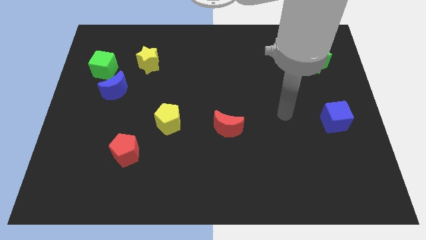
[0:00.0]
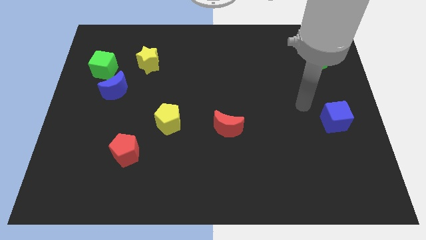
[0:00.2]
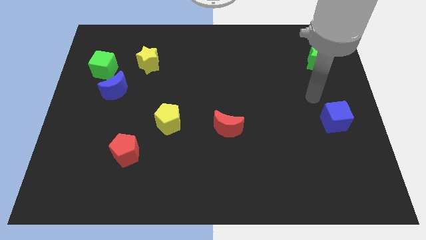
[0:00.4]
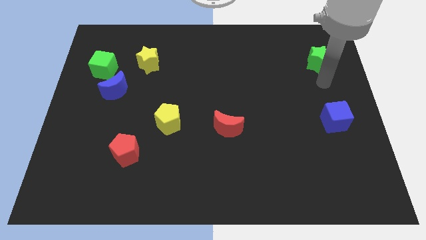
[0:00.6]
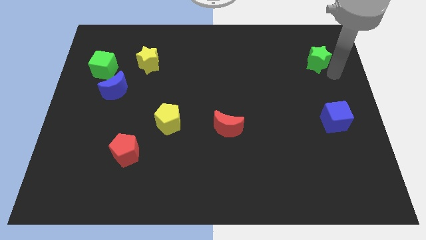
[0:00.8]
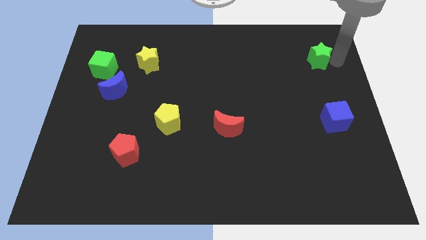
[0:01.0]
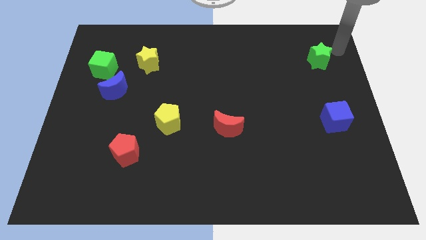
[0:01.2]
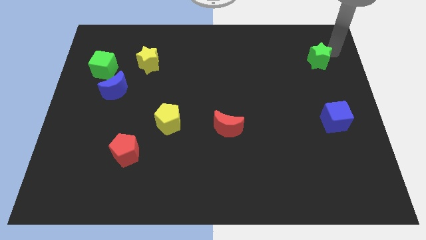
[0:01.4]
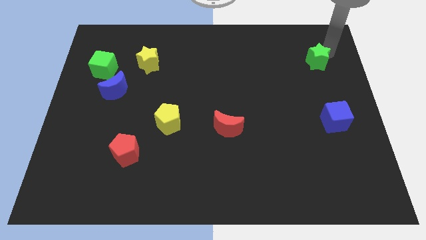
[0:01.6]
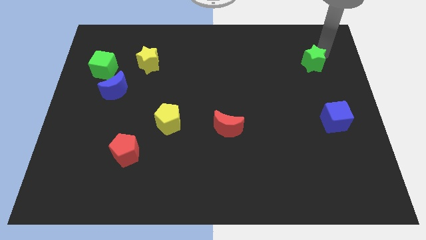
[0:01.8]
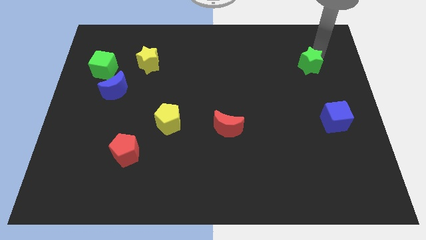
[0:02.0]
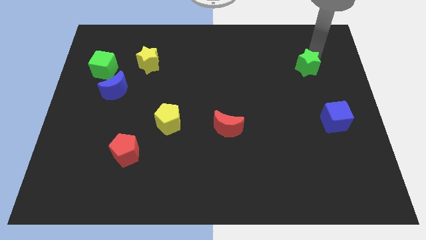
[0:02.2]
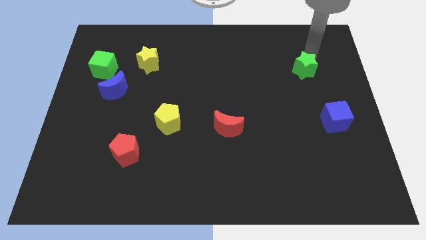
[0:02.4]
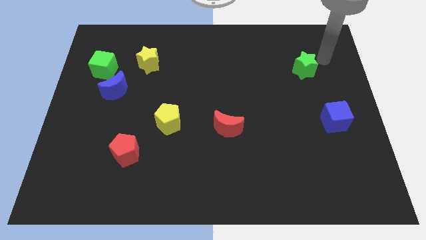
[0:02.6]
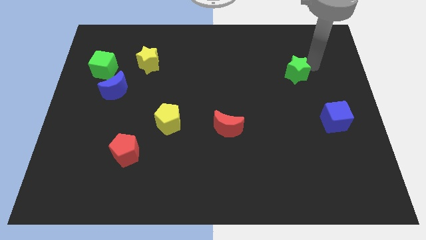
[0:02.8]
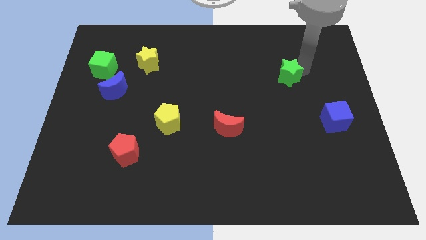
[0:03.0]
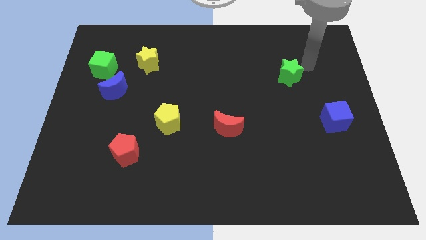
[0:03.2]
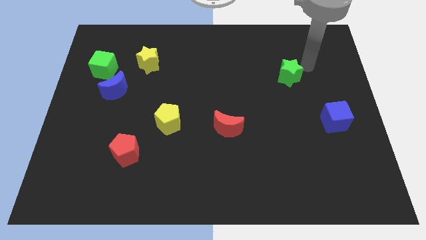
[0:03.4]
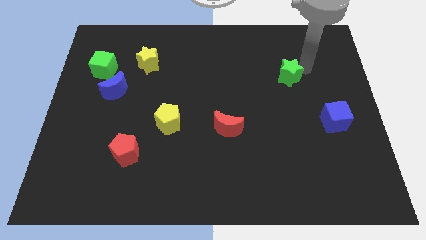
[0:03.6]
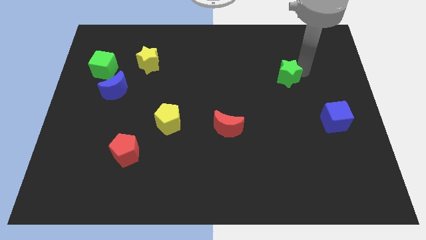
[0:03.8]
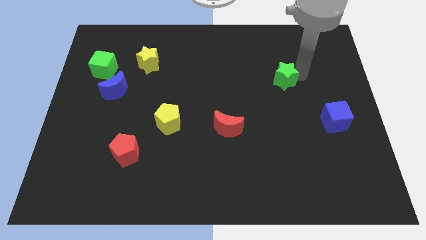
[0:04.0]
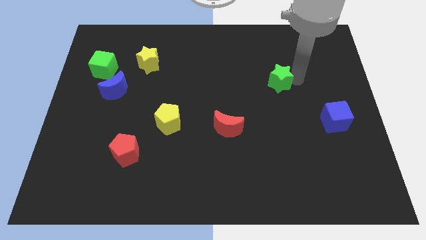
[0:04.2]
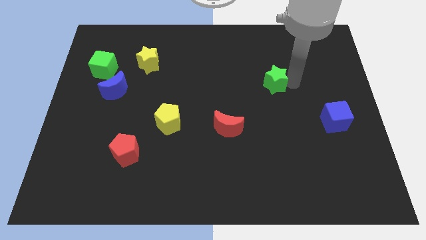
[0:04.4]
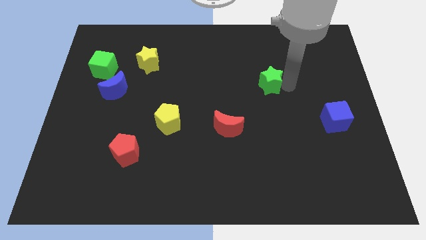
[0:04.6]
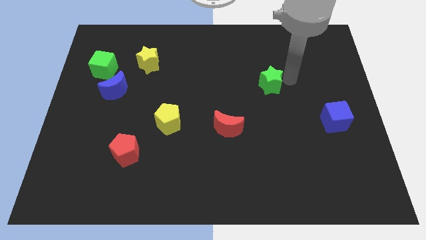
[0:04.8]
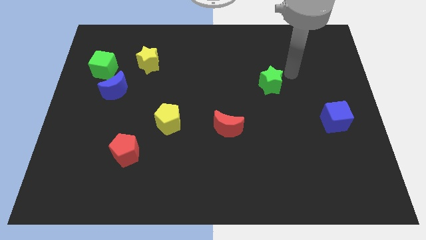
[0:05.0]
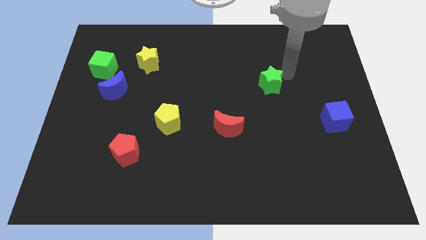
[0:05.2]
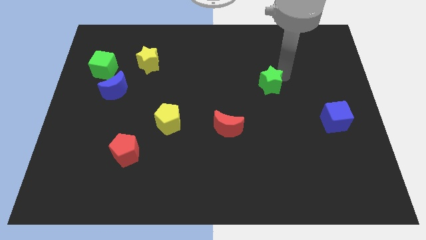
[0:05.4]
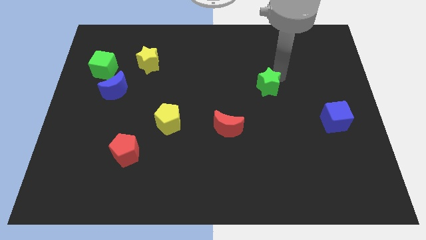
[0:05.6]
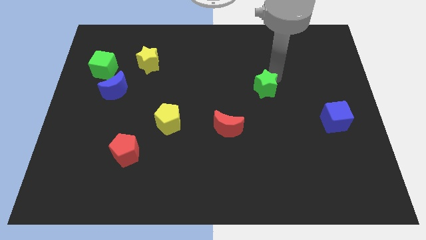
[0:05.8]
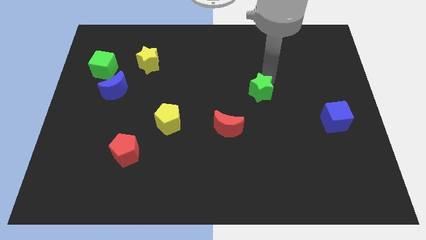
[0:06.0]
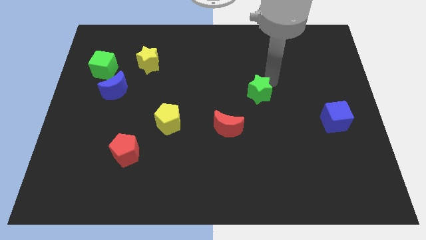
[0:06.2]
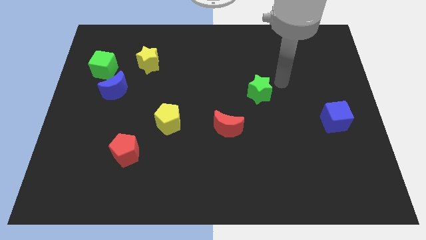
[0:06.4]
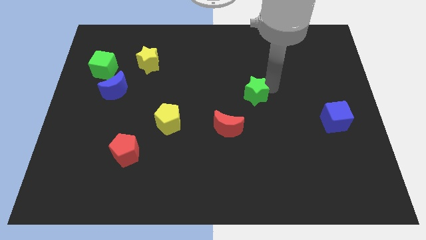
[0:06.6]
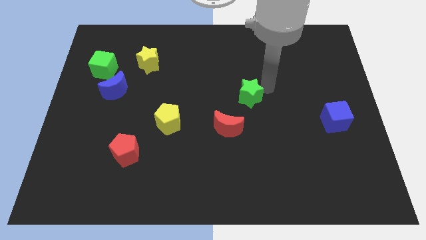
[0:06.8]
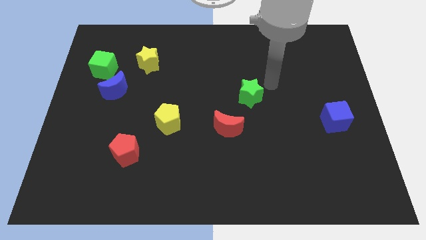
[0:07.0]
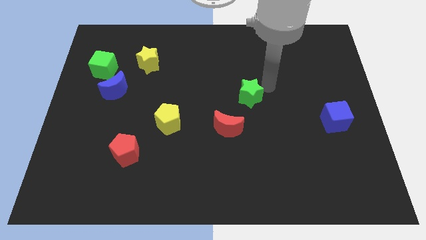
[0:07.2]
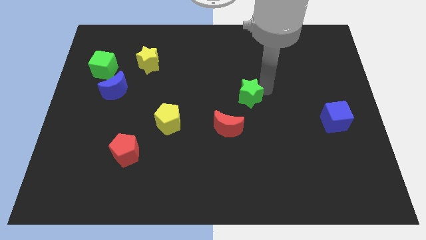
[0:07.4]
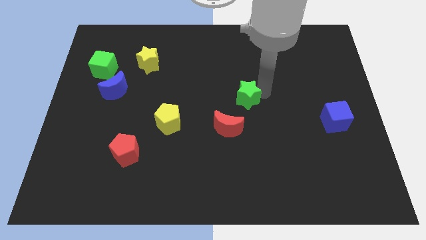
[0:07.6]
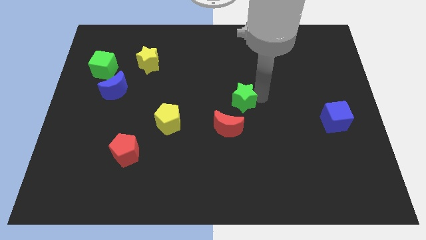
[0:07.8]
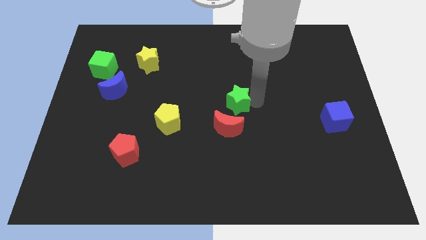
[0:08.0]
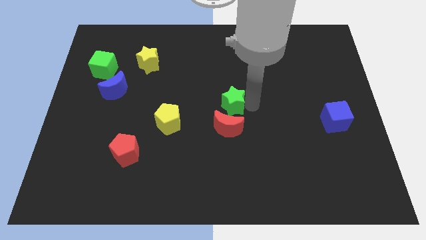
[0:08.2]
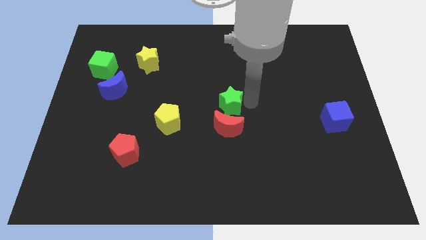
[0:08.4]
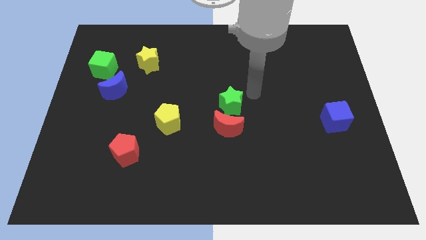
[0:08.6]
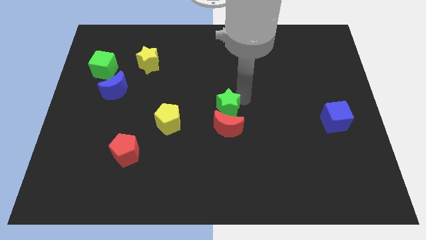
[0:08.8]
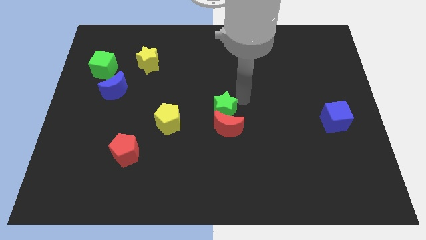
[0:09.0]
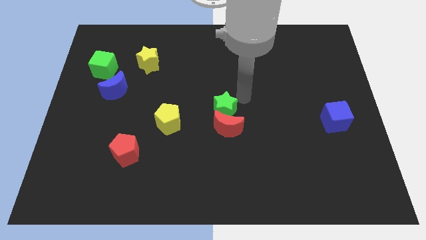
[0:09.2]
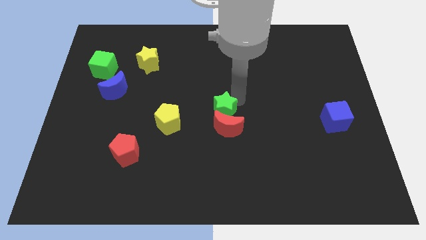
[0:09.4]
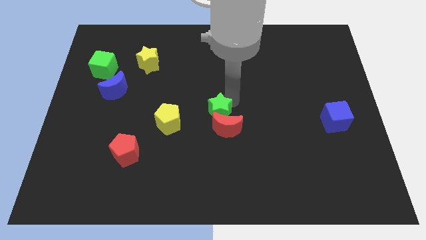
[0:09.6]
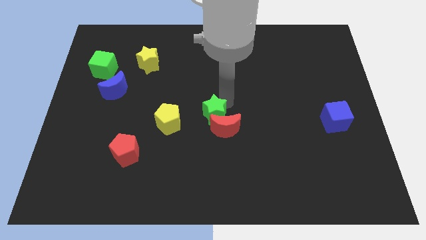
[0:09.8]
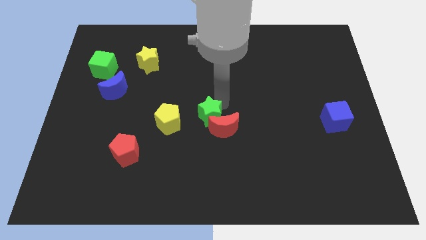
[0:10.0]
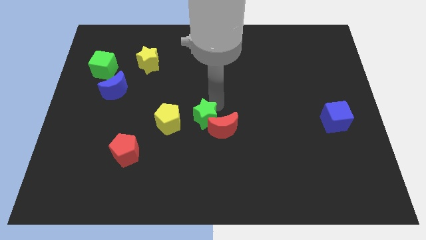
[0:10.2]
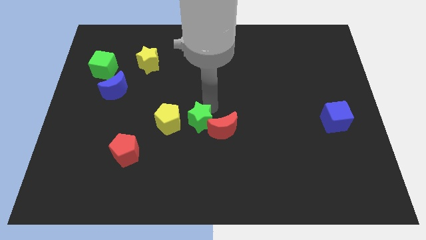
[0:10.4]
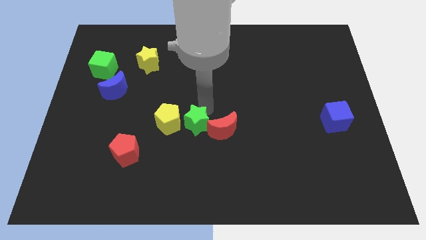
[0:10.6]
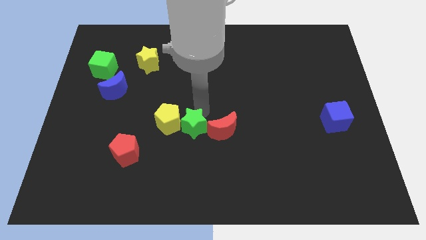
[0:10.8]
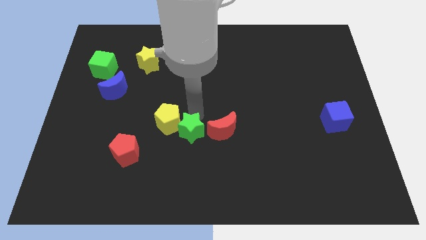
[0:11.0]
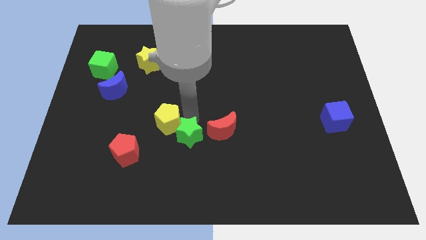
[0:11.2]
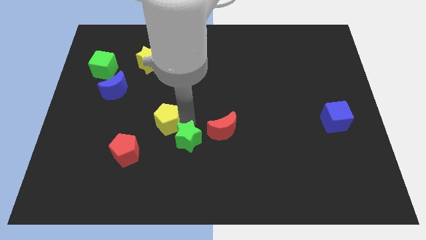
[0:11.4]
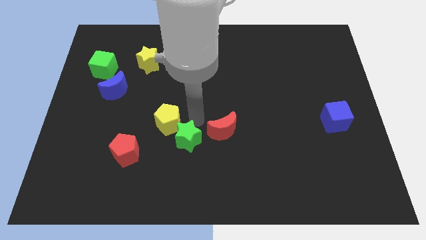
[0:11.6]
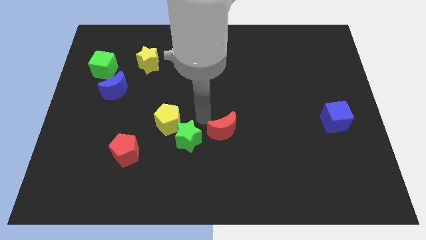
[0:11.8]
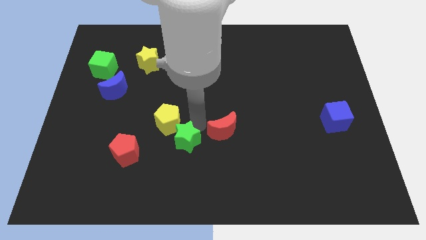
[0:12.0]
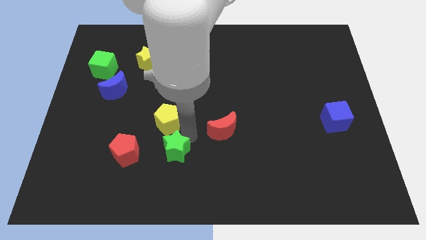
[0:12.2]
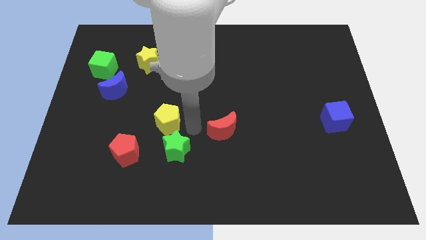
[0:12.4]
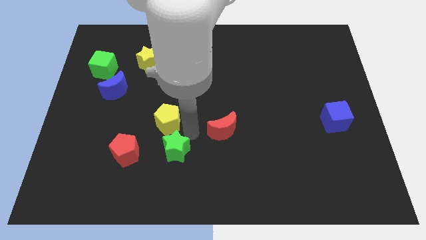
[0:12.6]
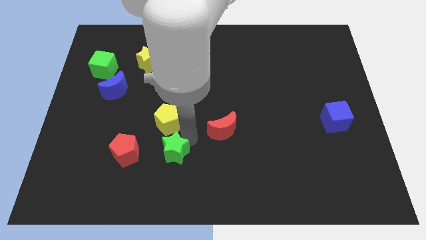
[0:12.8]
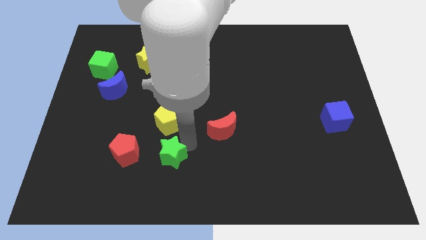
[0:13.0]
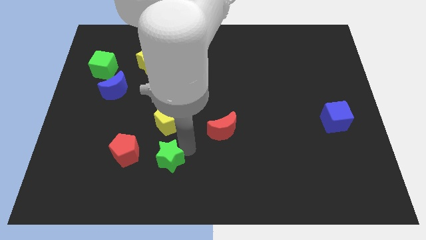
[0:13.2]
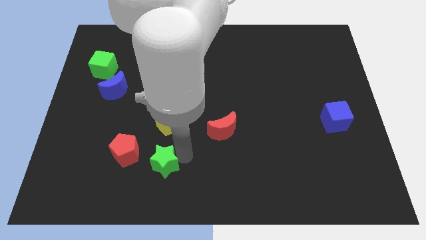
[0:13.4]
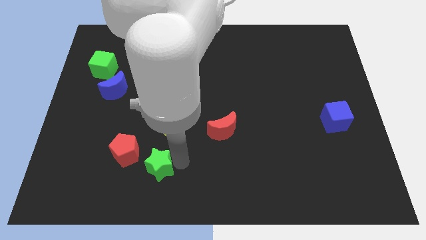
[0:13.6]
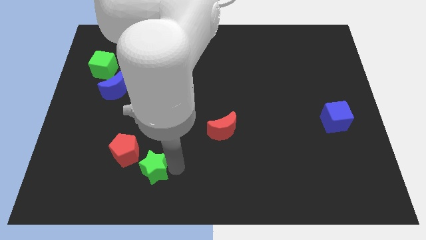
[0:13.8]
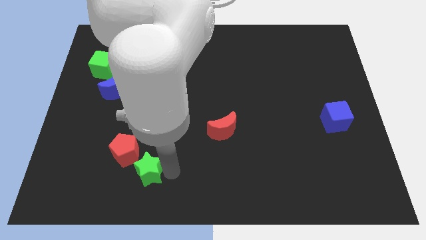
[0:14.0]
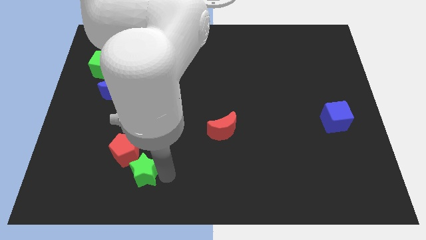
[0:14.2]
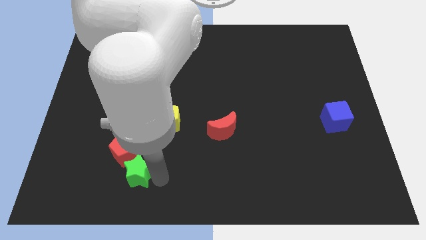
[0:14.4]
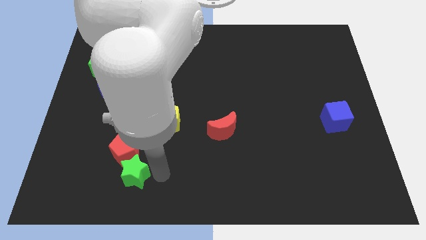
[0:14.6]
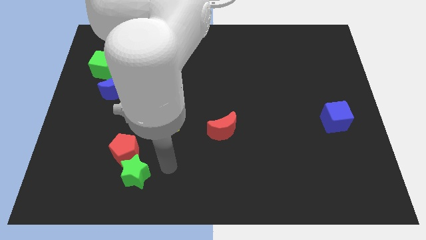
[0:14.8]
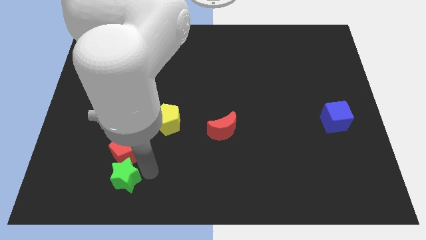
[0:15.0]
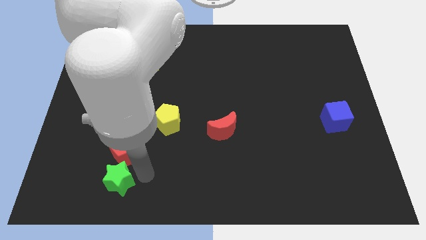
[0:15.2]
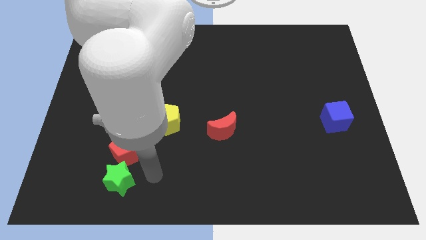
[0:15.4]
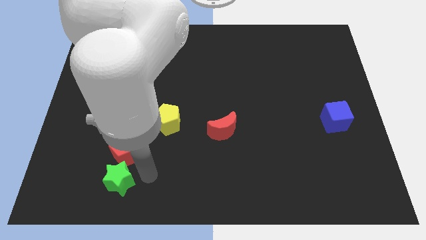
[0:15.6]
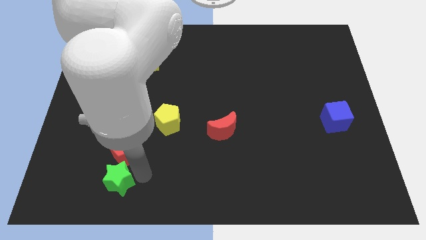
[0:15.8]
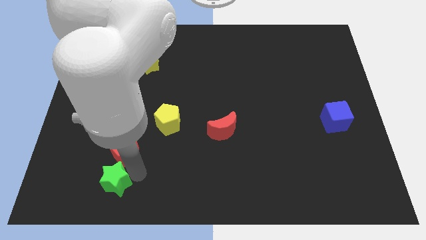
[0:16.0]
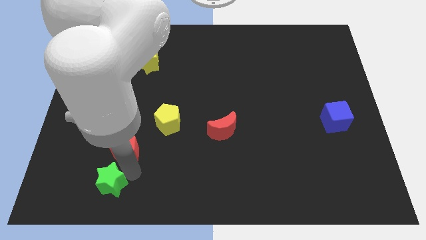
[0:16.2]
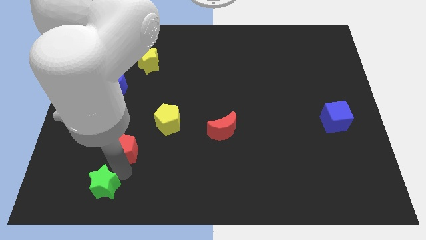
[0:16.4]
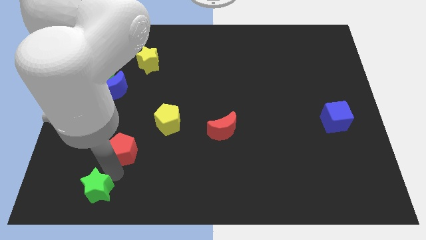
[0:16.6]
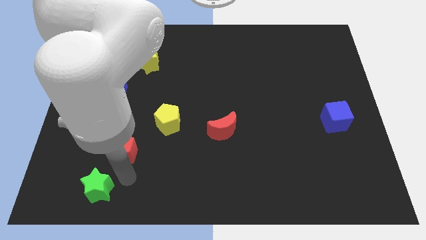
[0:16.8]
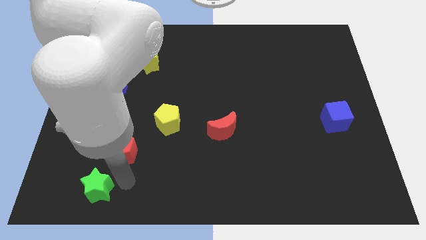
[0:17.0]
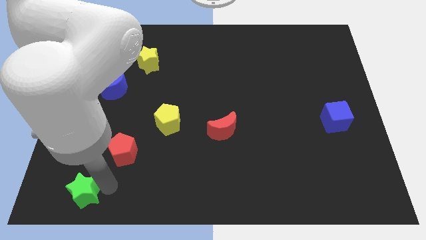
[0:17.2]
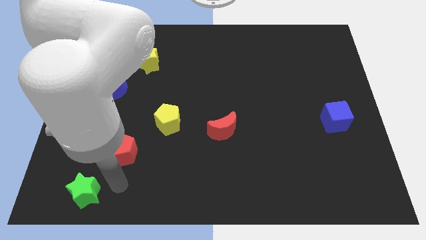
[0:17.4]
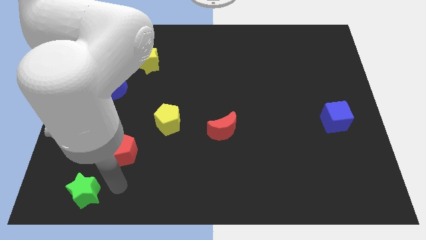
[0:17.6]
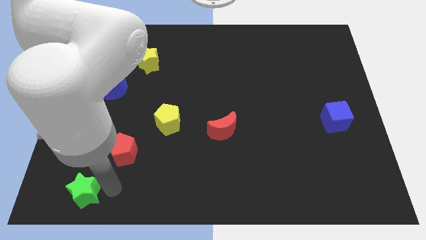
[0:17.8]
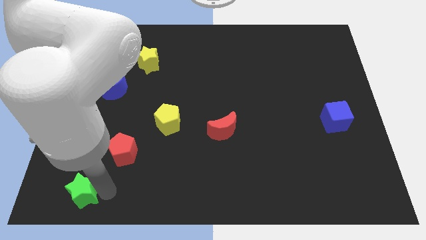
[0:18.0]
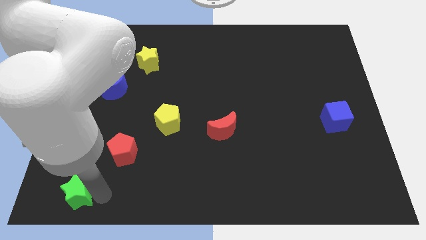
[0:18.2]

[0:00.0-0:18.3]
put the green star to the lower left corner
